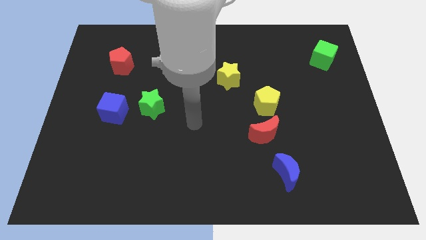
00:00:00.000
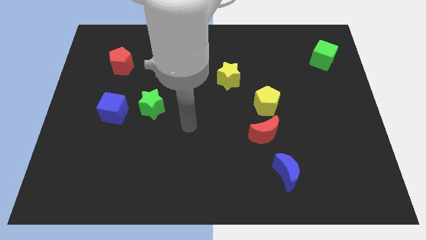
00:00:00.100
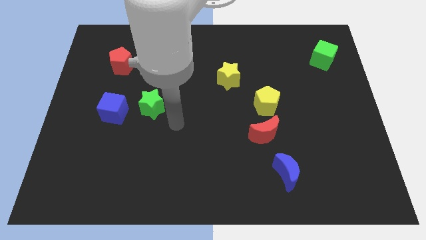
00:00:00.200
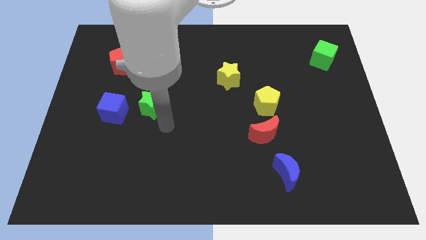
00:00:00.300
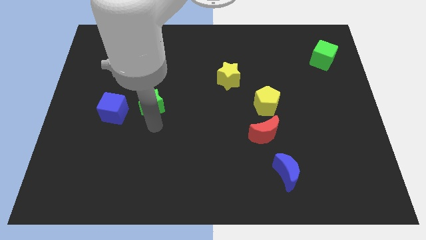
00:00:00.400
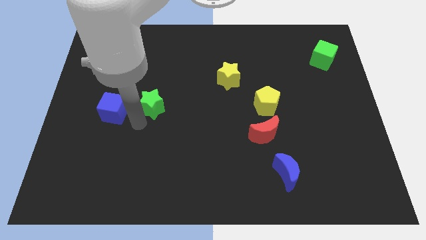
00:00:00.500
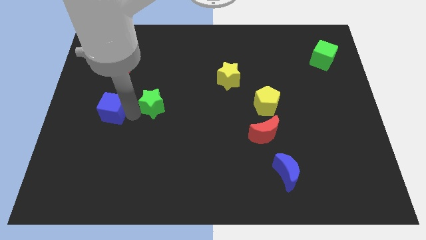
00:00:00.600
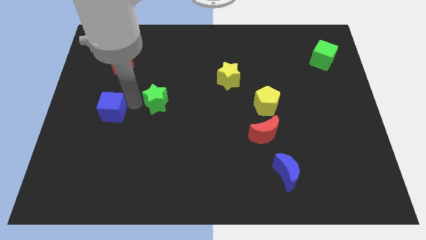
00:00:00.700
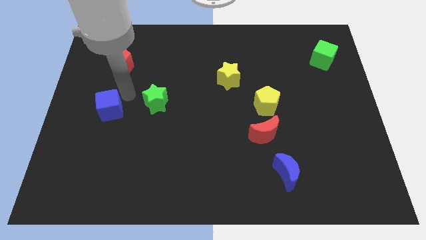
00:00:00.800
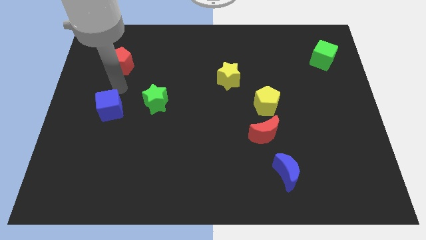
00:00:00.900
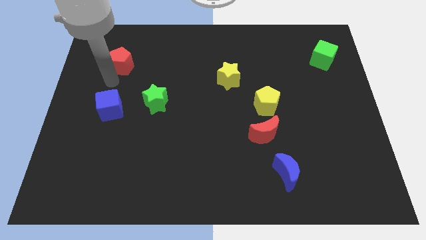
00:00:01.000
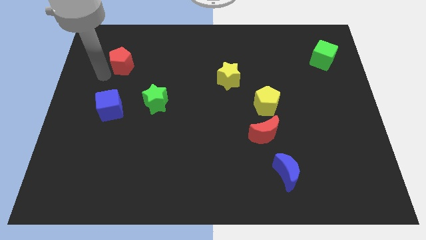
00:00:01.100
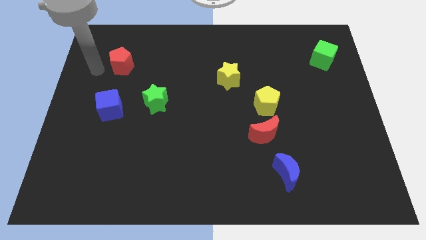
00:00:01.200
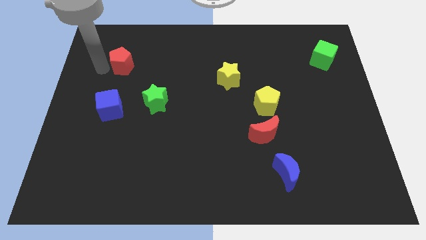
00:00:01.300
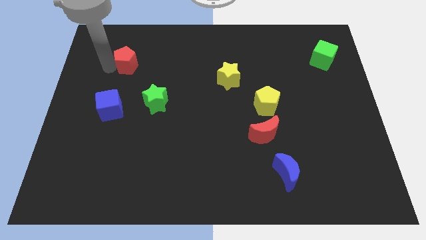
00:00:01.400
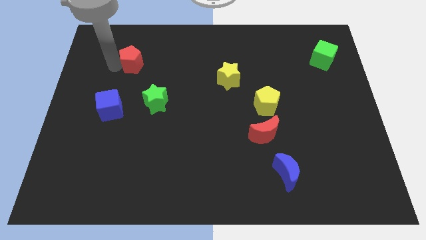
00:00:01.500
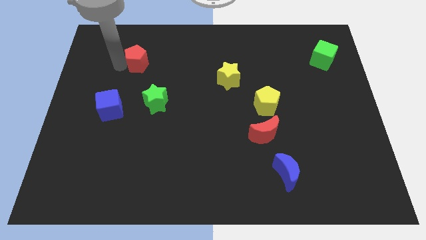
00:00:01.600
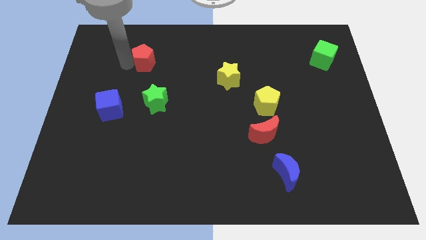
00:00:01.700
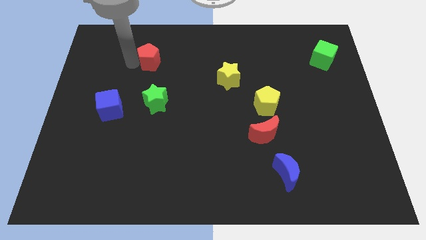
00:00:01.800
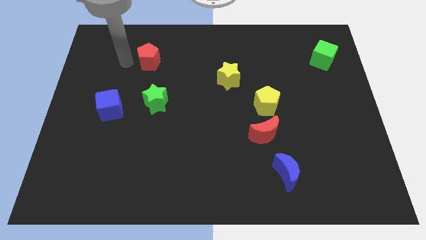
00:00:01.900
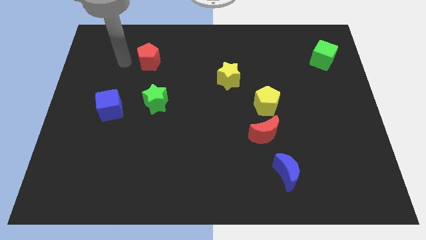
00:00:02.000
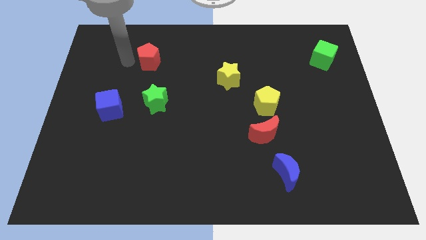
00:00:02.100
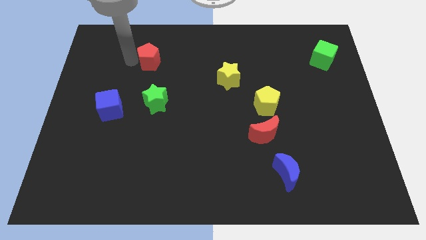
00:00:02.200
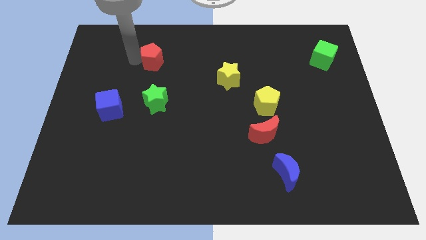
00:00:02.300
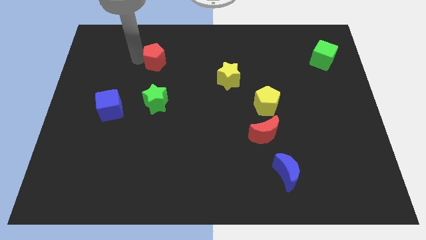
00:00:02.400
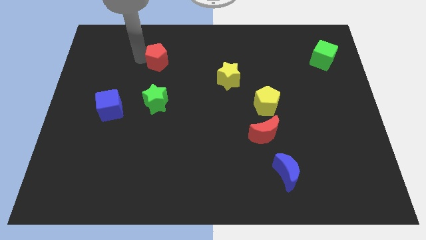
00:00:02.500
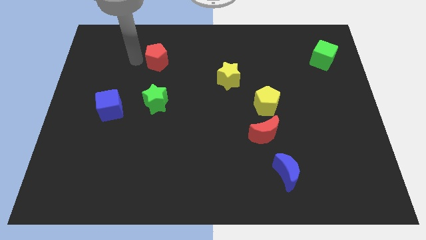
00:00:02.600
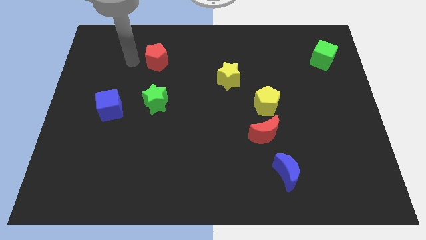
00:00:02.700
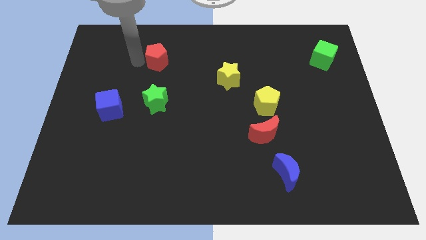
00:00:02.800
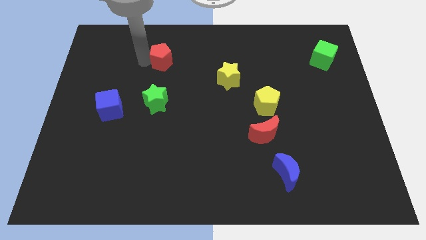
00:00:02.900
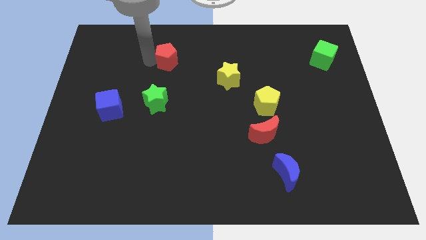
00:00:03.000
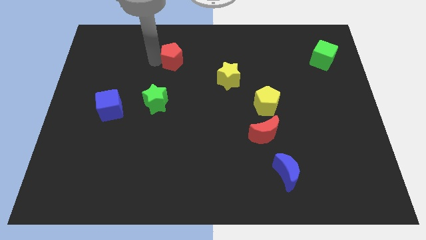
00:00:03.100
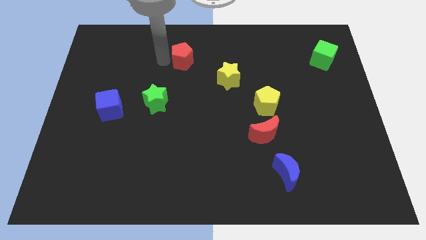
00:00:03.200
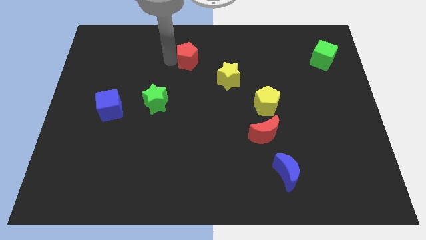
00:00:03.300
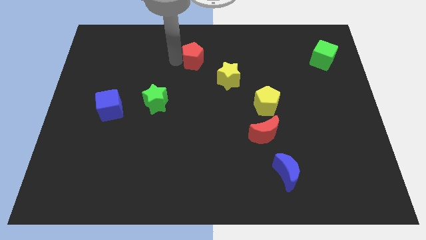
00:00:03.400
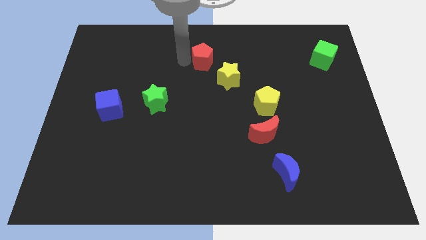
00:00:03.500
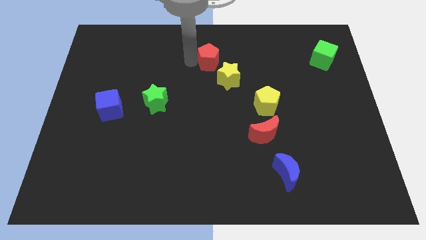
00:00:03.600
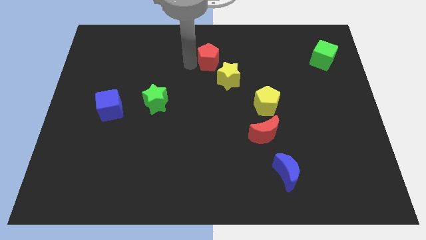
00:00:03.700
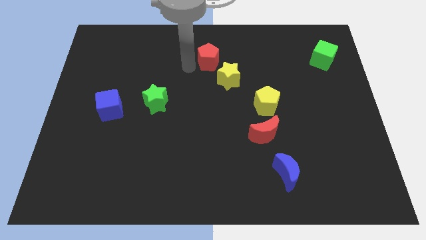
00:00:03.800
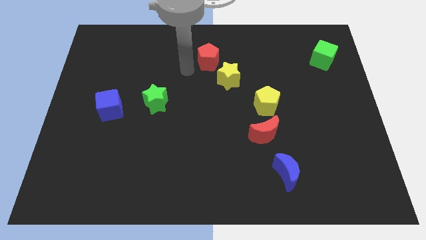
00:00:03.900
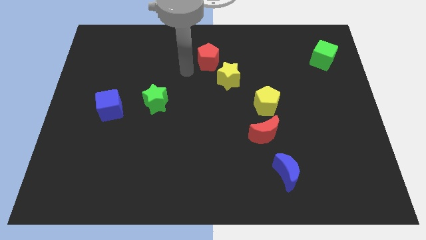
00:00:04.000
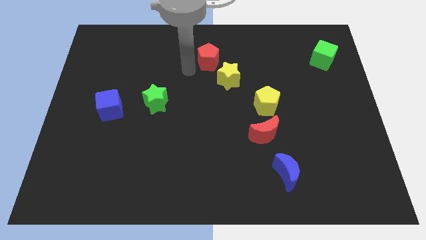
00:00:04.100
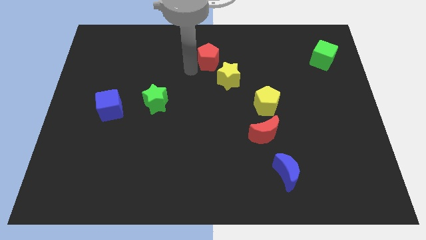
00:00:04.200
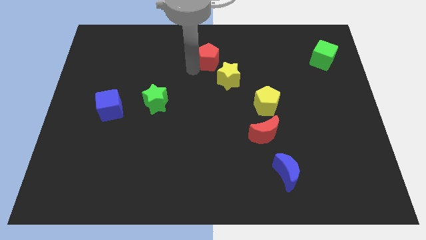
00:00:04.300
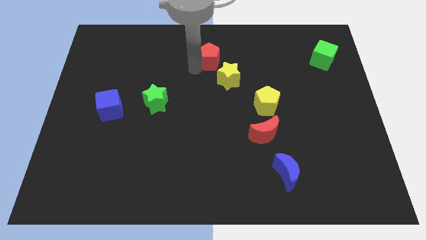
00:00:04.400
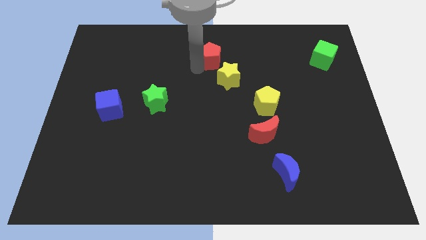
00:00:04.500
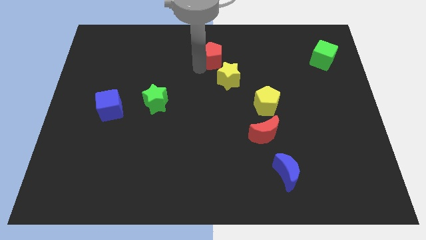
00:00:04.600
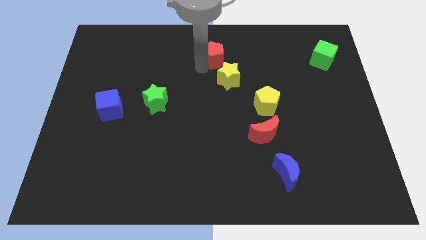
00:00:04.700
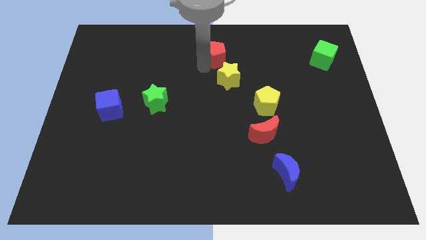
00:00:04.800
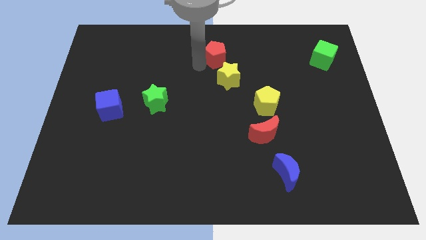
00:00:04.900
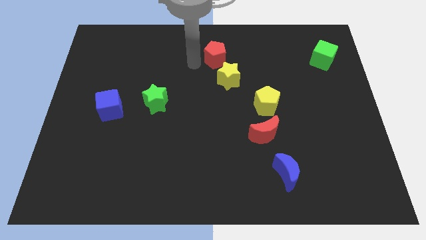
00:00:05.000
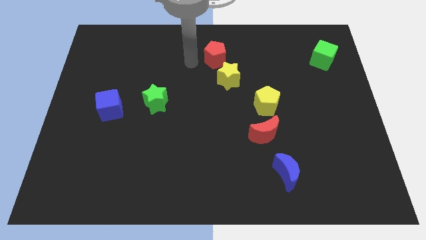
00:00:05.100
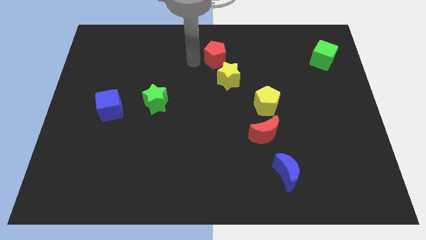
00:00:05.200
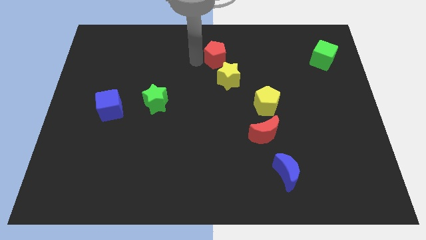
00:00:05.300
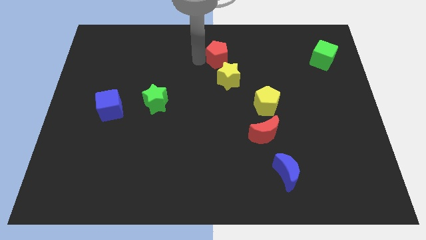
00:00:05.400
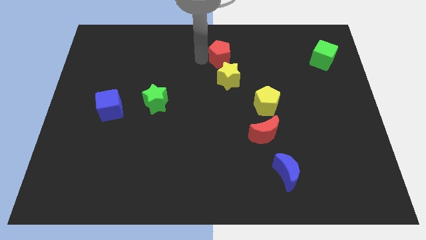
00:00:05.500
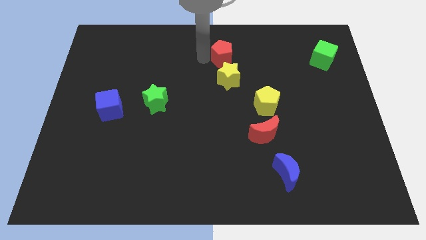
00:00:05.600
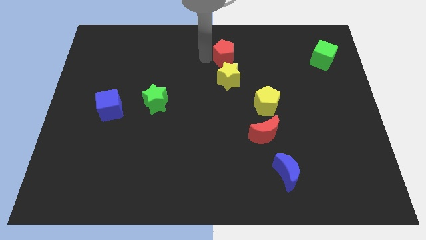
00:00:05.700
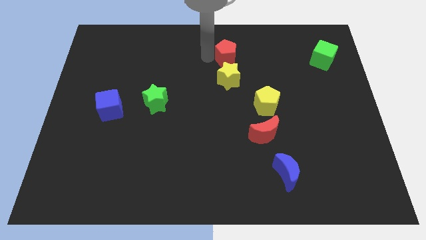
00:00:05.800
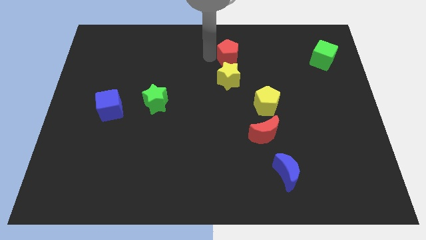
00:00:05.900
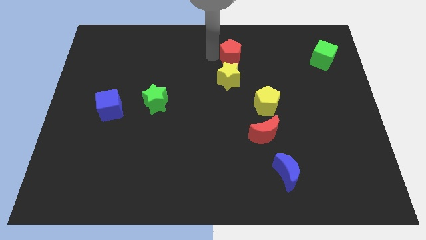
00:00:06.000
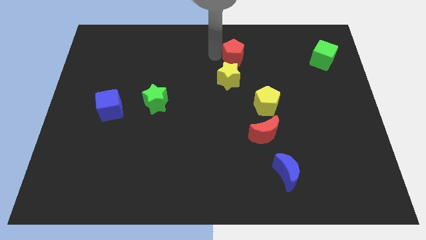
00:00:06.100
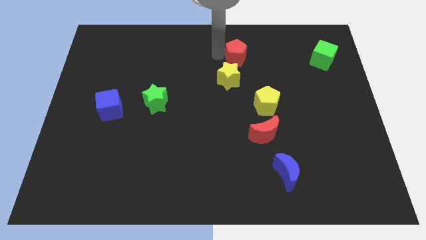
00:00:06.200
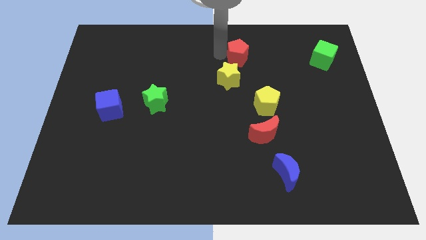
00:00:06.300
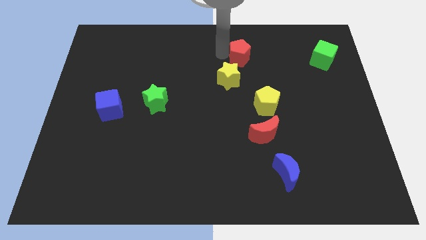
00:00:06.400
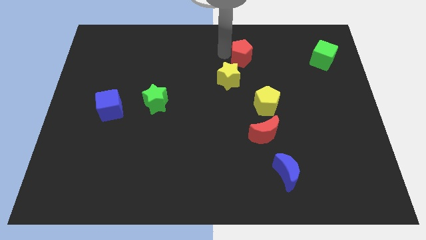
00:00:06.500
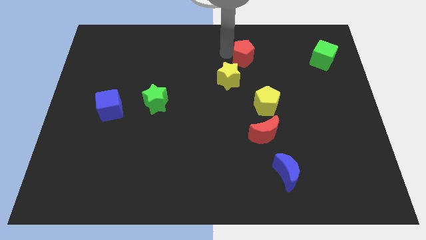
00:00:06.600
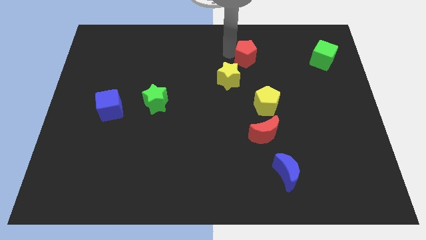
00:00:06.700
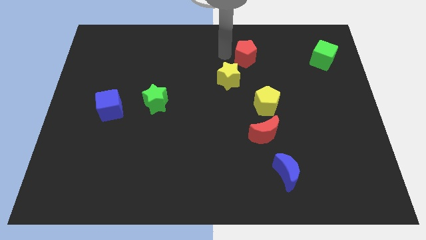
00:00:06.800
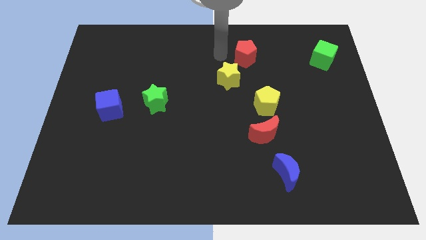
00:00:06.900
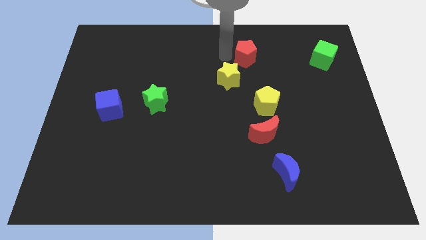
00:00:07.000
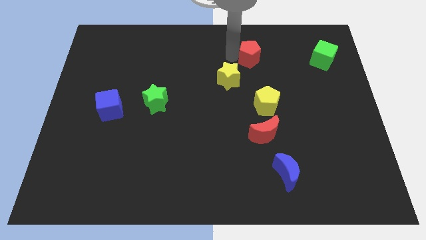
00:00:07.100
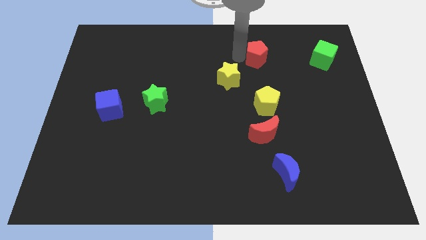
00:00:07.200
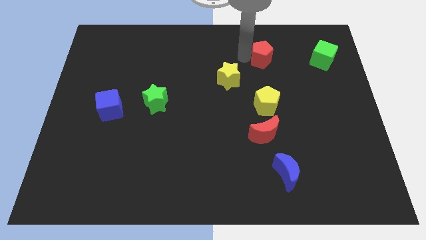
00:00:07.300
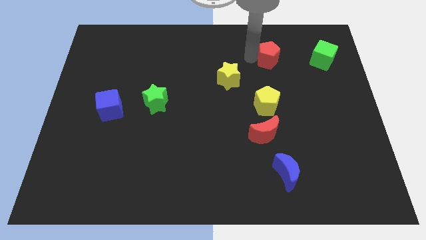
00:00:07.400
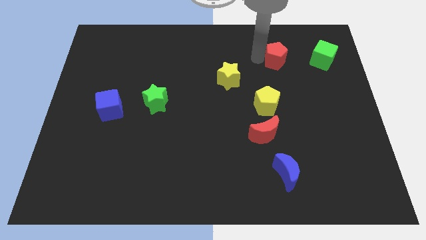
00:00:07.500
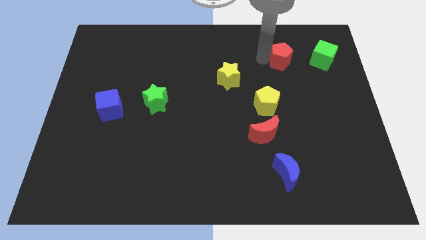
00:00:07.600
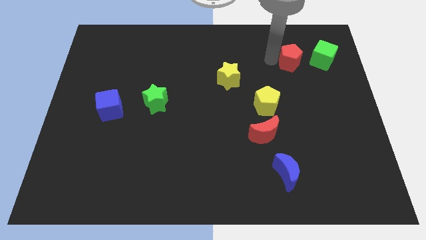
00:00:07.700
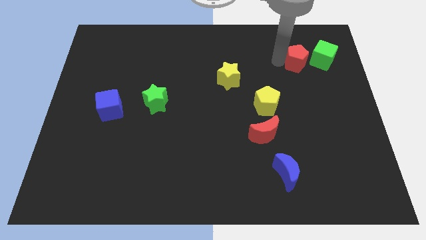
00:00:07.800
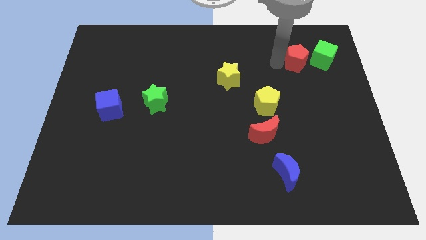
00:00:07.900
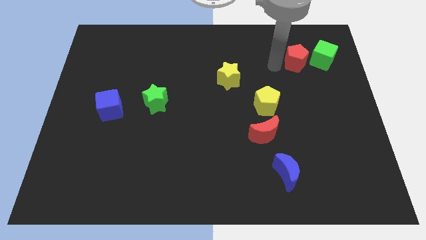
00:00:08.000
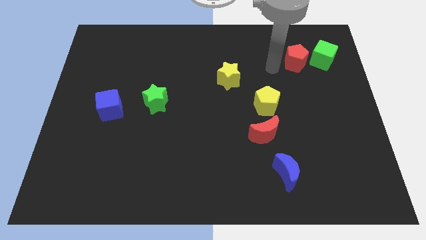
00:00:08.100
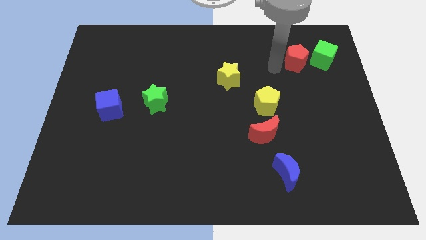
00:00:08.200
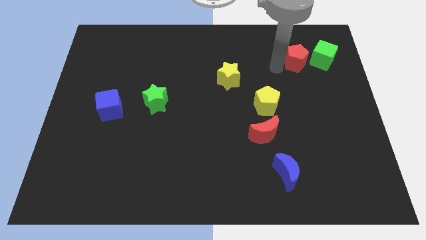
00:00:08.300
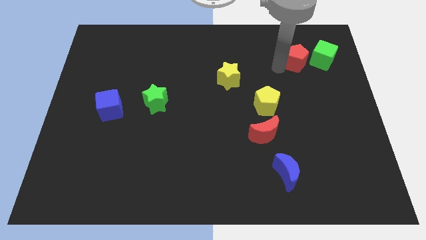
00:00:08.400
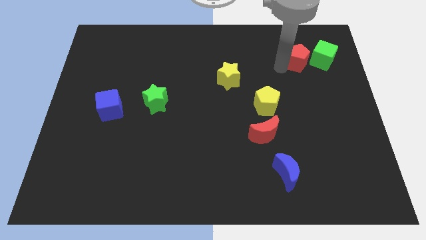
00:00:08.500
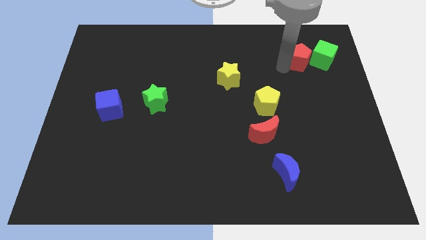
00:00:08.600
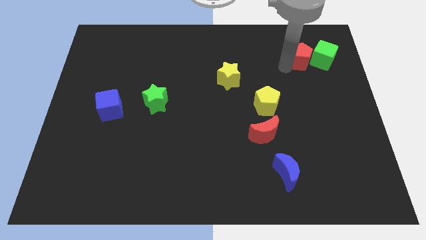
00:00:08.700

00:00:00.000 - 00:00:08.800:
put the red pentagon towards the green cube
